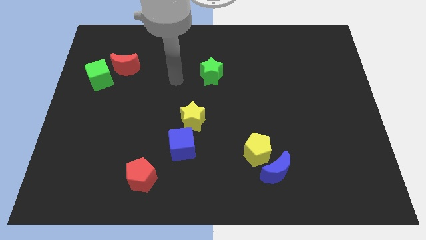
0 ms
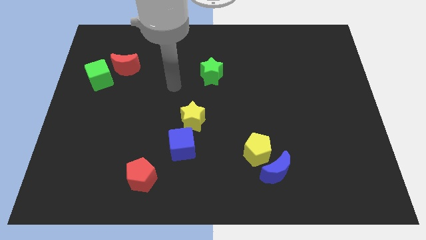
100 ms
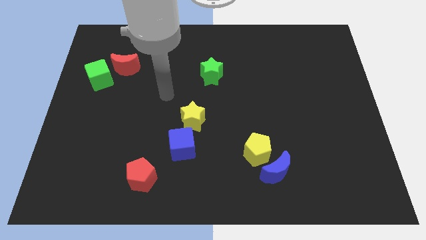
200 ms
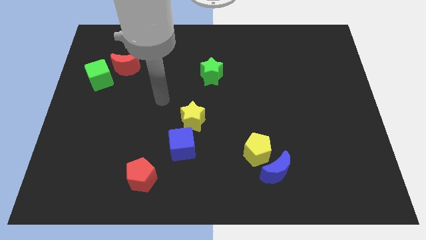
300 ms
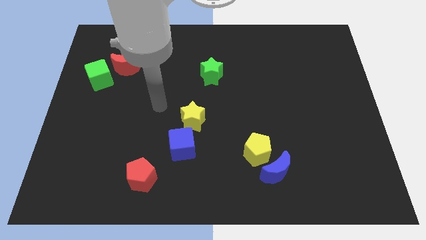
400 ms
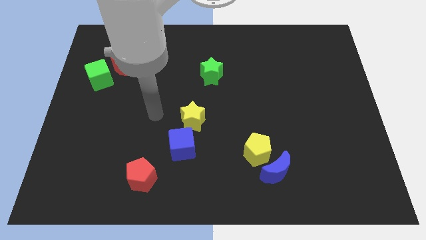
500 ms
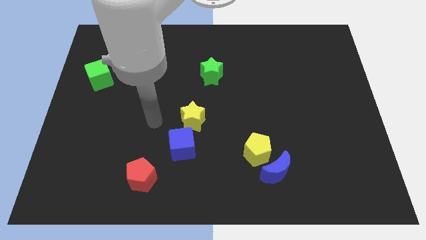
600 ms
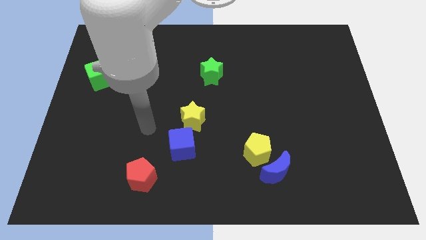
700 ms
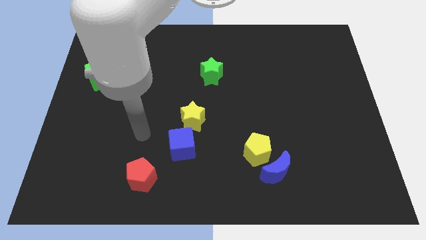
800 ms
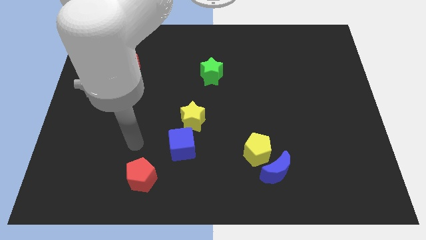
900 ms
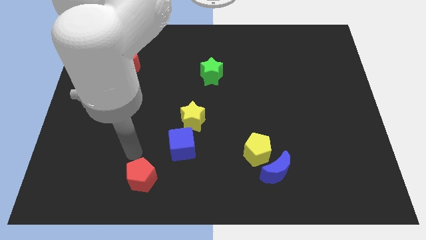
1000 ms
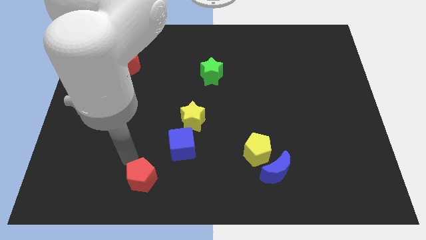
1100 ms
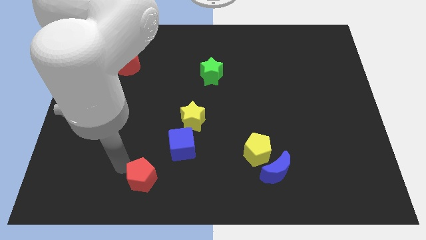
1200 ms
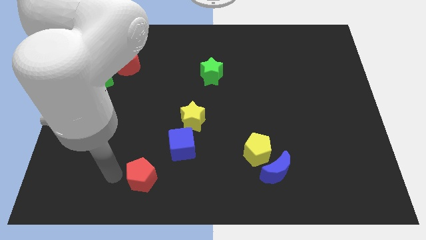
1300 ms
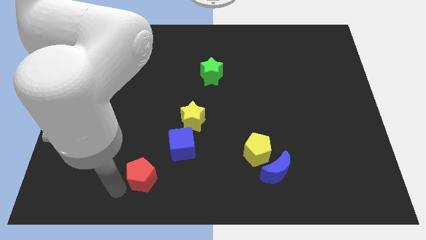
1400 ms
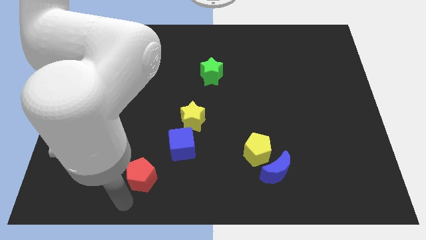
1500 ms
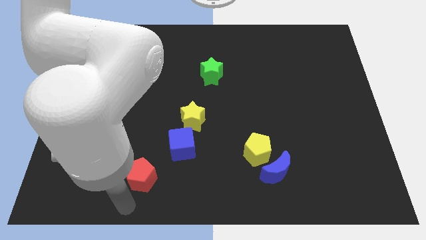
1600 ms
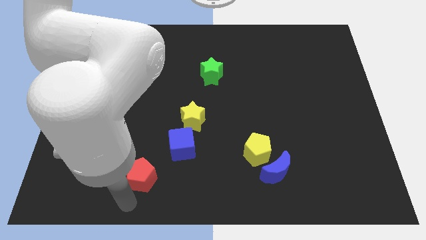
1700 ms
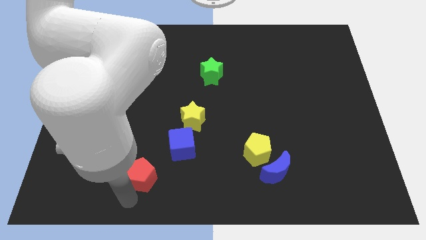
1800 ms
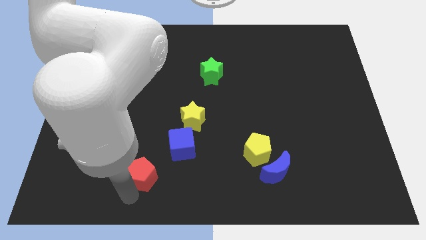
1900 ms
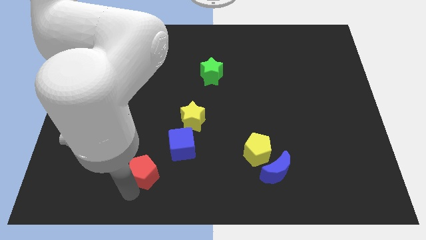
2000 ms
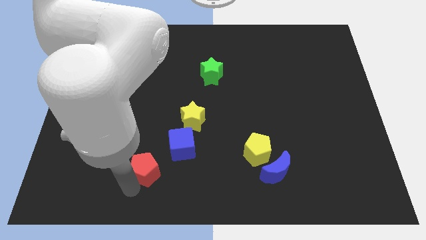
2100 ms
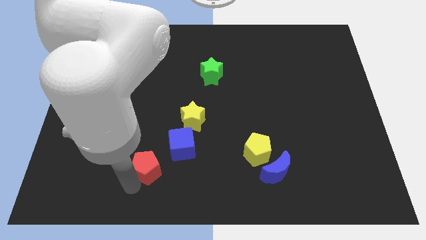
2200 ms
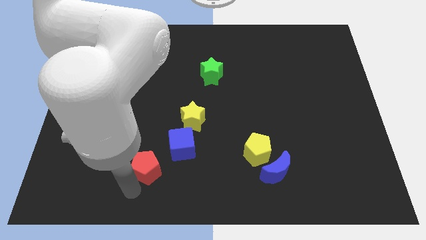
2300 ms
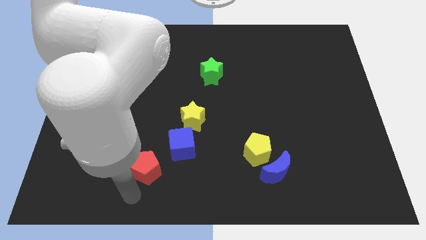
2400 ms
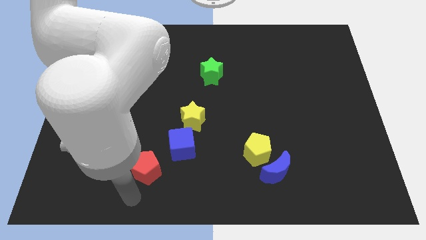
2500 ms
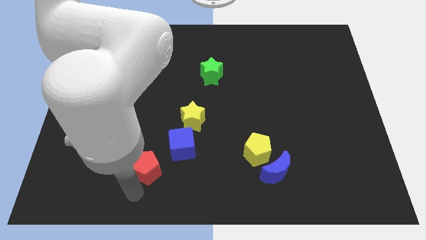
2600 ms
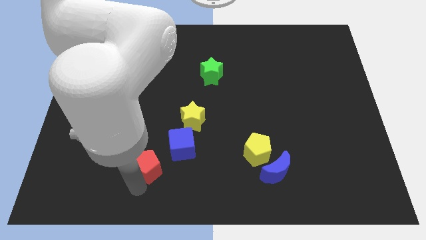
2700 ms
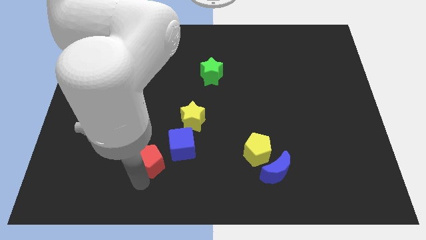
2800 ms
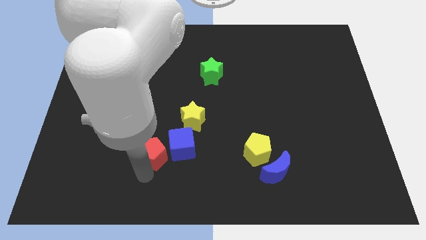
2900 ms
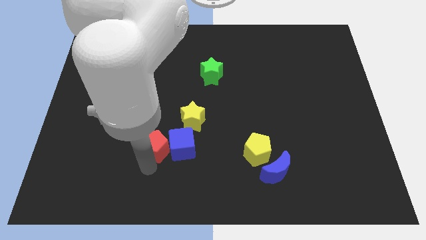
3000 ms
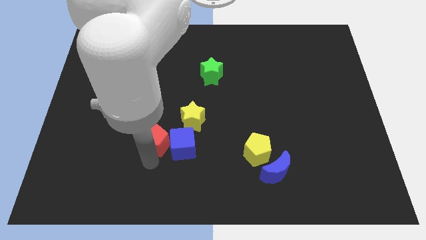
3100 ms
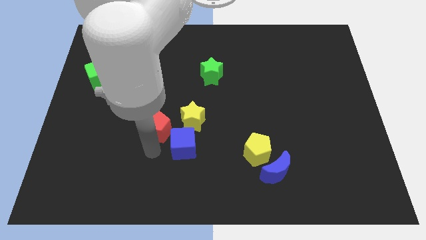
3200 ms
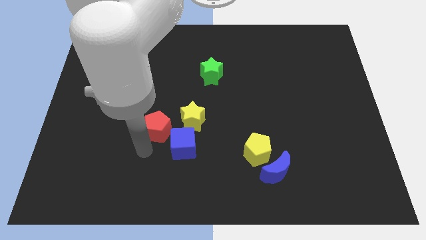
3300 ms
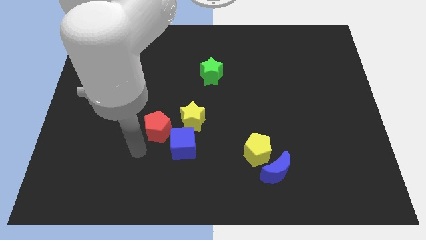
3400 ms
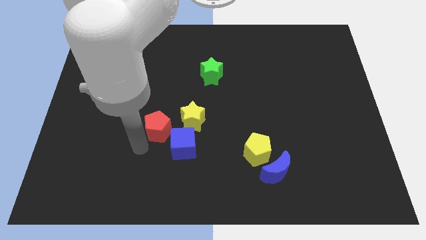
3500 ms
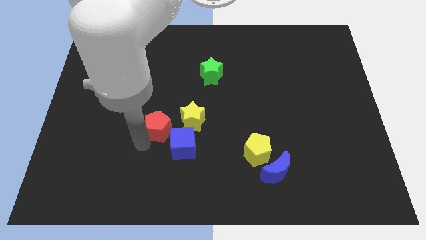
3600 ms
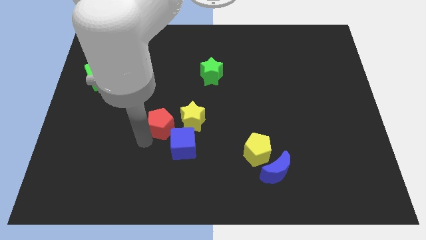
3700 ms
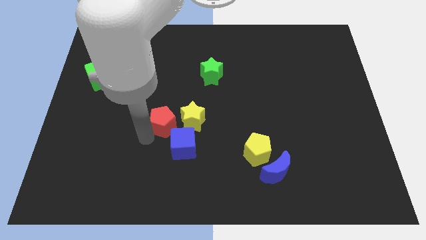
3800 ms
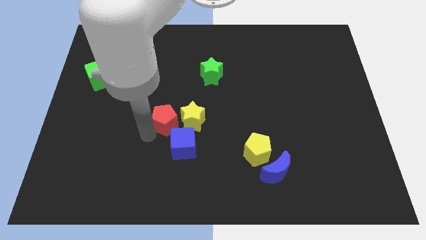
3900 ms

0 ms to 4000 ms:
slide the red pentagon to the middle of the board

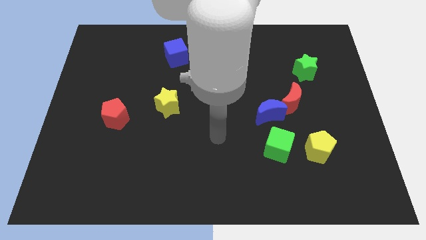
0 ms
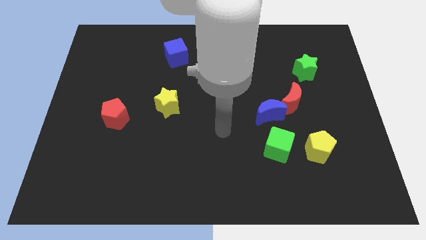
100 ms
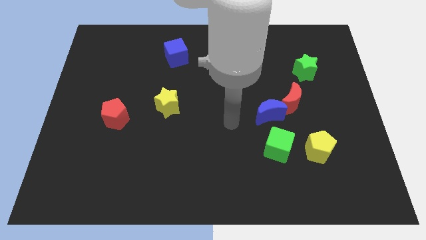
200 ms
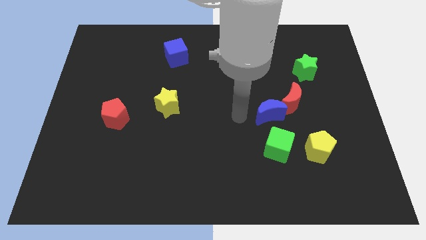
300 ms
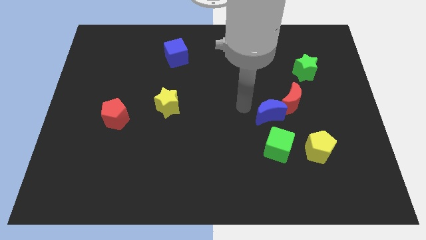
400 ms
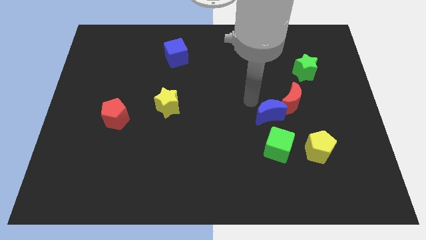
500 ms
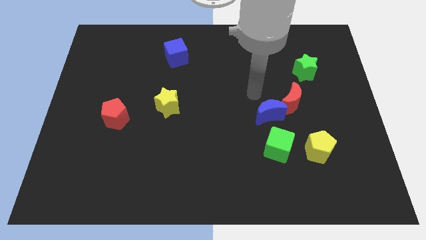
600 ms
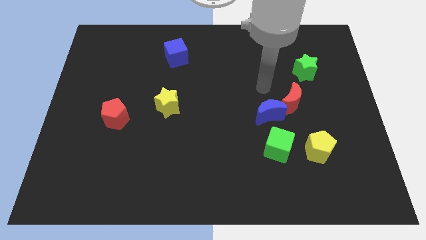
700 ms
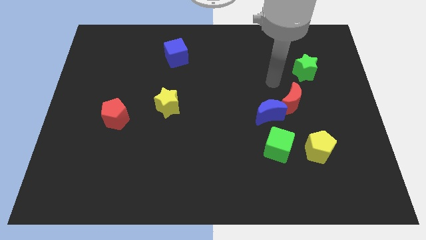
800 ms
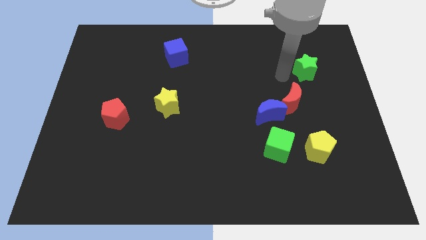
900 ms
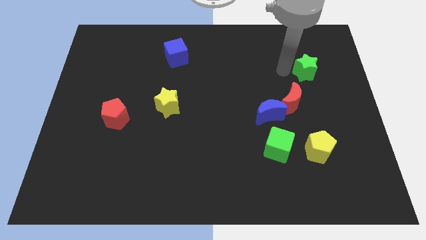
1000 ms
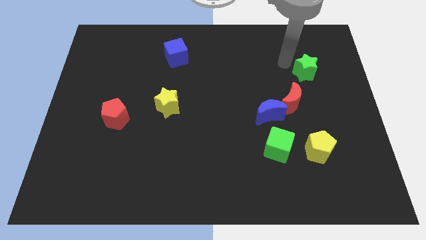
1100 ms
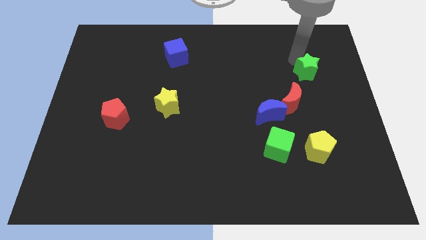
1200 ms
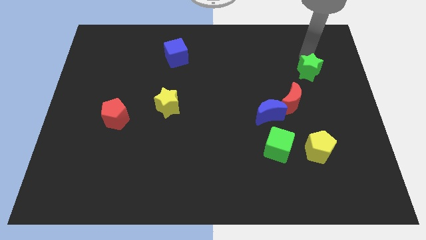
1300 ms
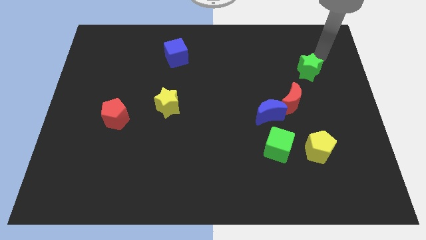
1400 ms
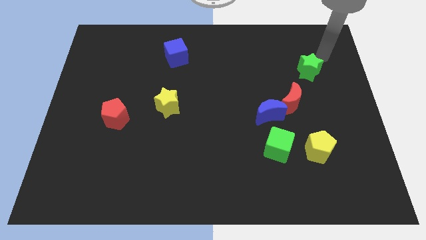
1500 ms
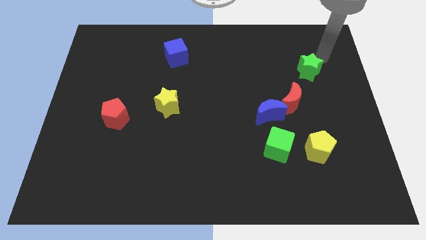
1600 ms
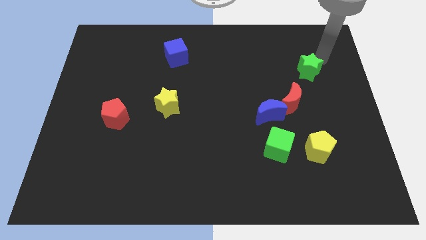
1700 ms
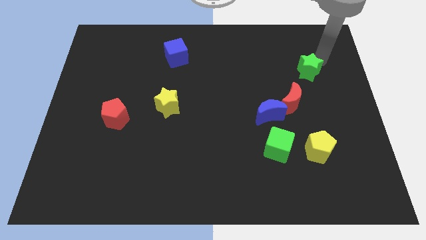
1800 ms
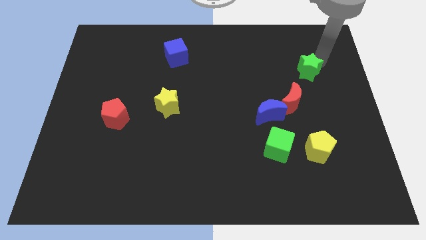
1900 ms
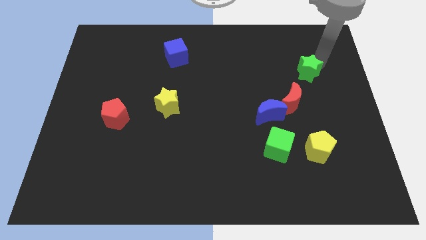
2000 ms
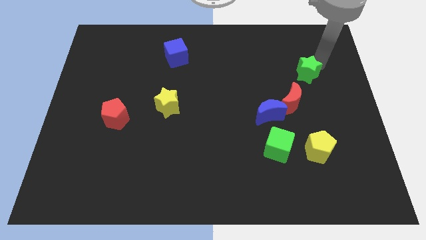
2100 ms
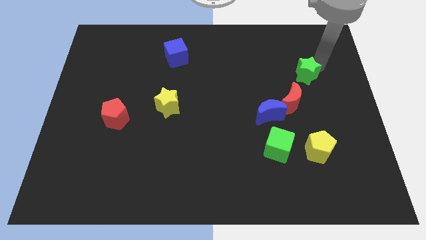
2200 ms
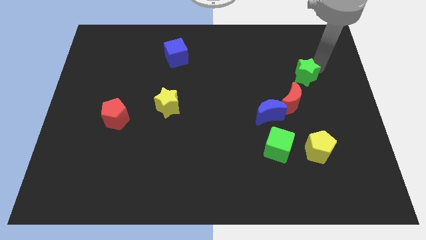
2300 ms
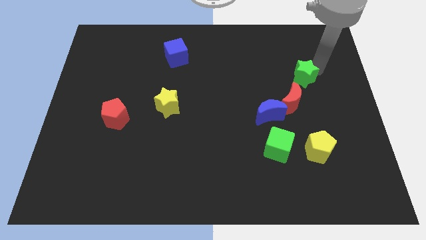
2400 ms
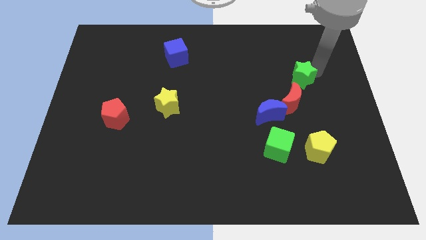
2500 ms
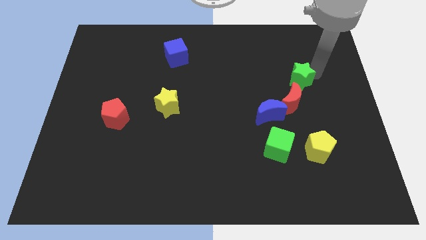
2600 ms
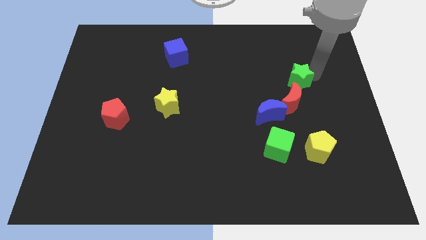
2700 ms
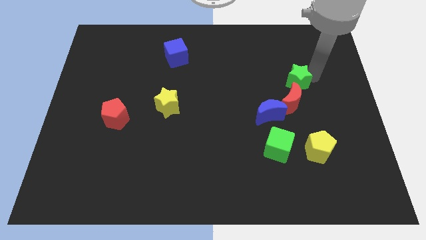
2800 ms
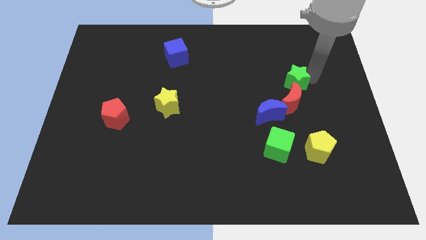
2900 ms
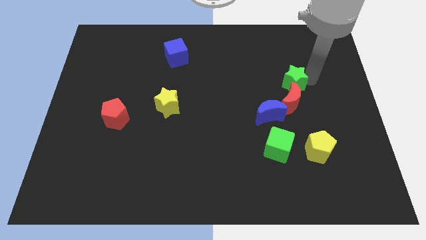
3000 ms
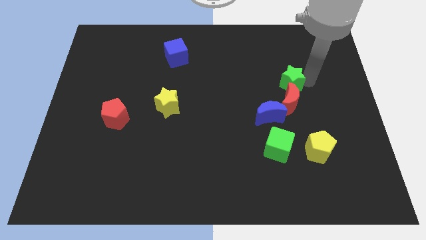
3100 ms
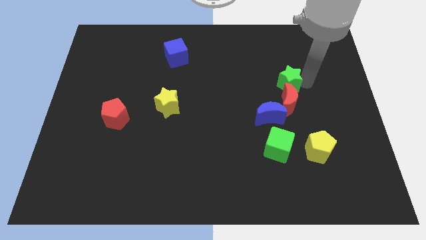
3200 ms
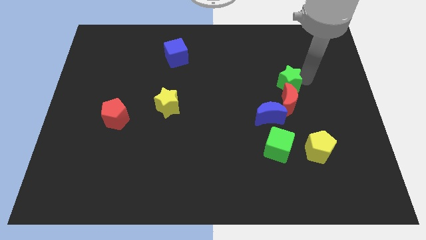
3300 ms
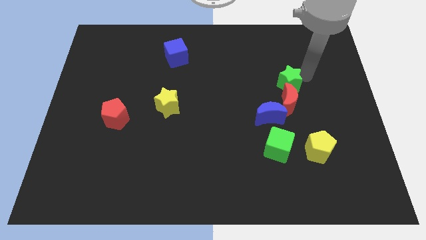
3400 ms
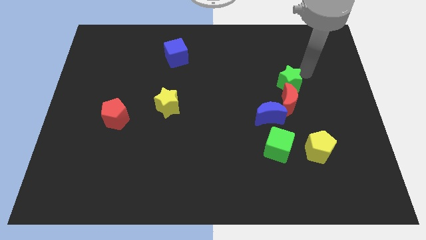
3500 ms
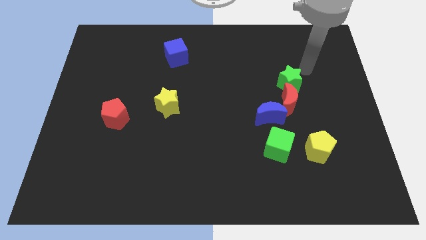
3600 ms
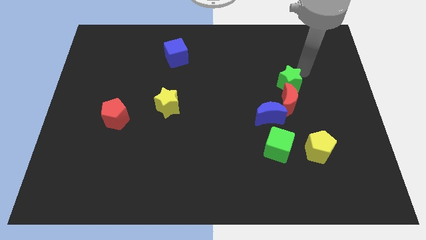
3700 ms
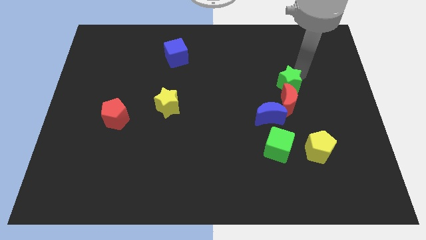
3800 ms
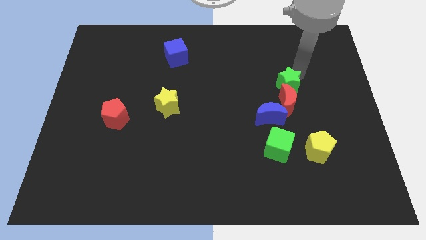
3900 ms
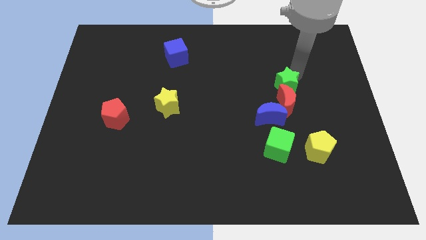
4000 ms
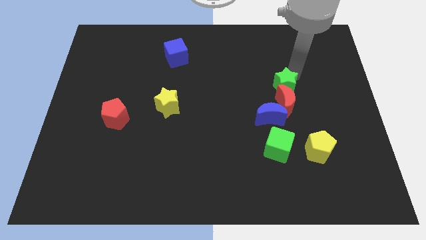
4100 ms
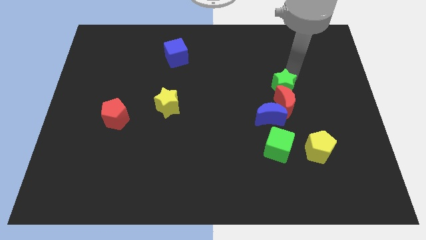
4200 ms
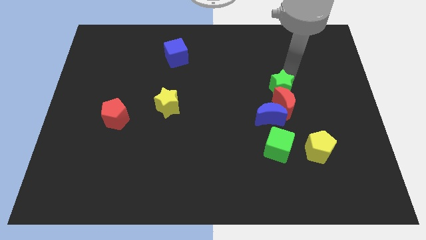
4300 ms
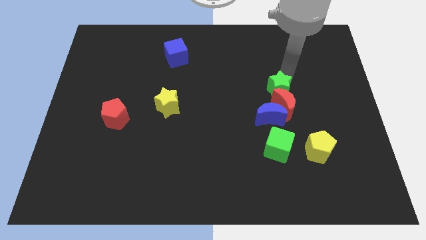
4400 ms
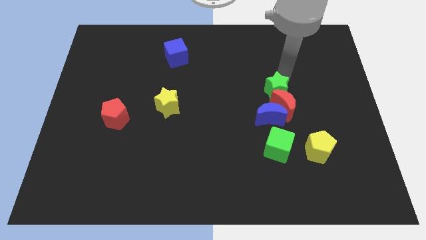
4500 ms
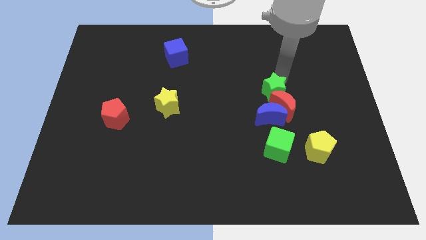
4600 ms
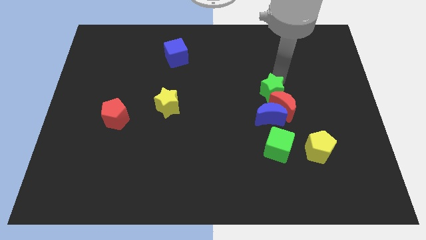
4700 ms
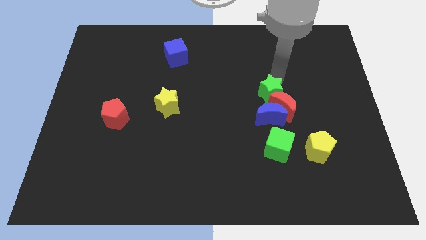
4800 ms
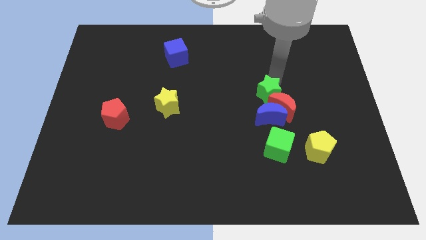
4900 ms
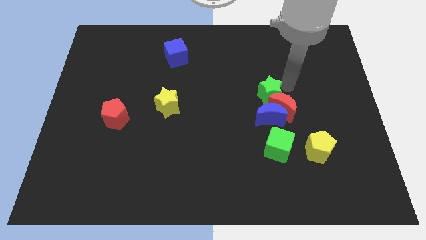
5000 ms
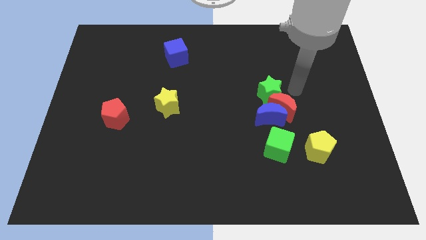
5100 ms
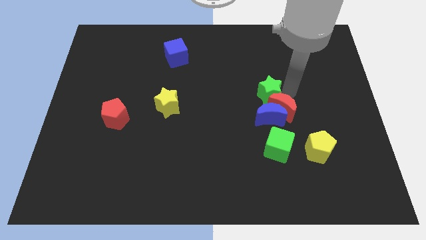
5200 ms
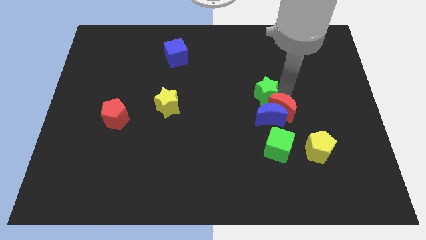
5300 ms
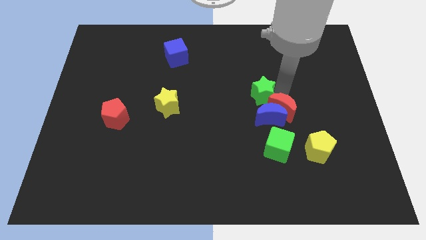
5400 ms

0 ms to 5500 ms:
put the green star to the middle
